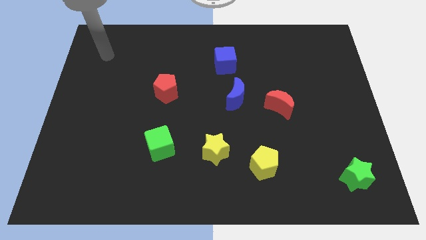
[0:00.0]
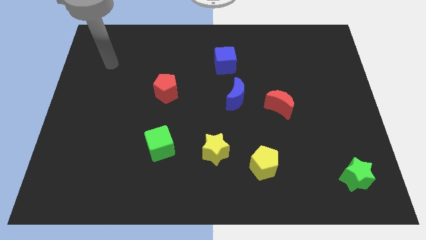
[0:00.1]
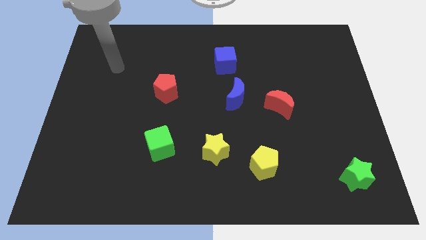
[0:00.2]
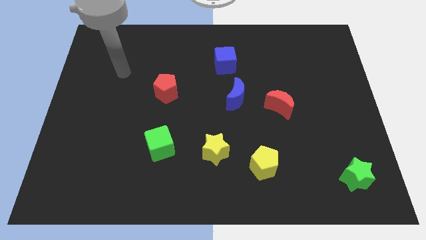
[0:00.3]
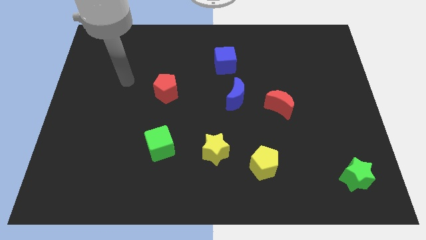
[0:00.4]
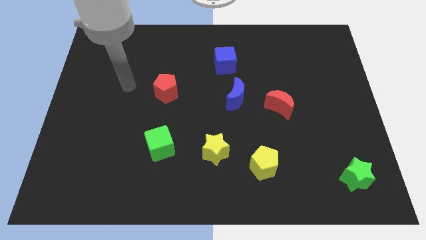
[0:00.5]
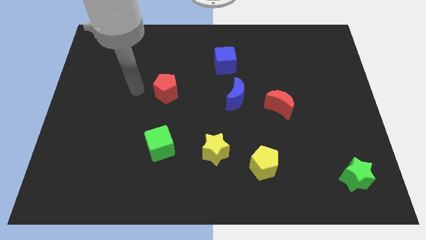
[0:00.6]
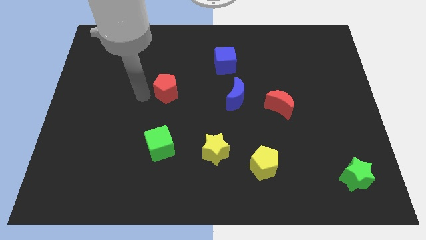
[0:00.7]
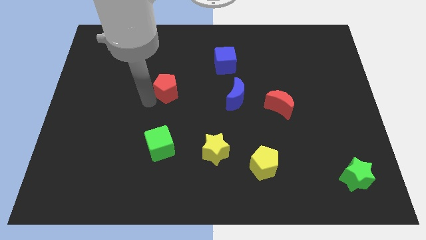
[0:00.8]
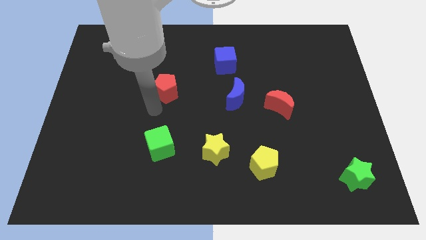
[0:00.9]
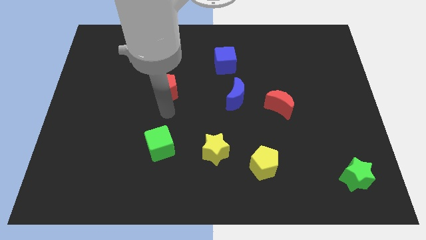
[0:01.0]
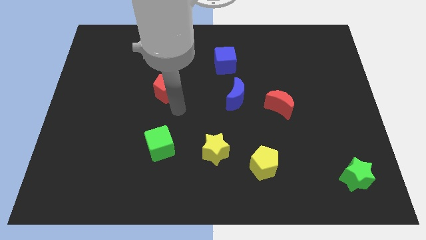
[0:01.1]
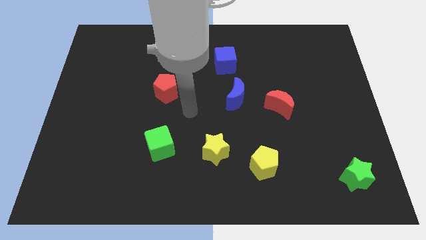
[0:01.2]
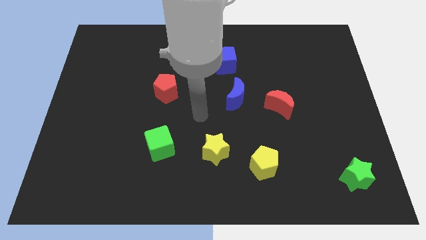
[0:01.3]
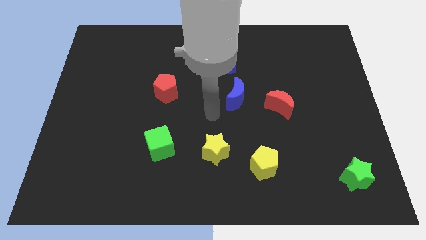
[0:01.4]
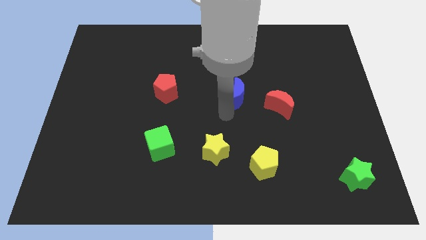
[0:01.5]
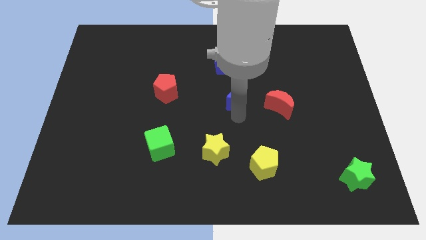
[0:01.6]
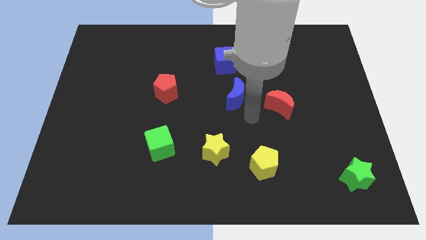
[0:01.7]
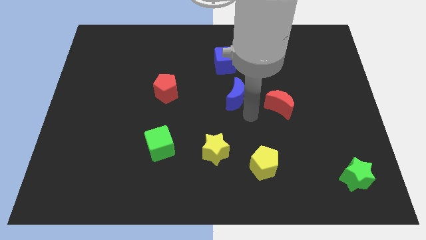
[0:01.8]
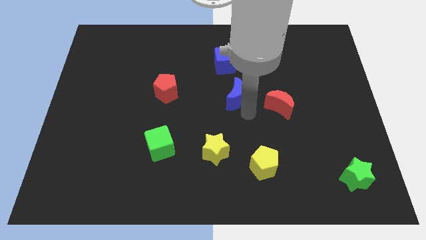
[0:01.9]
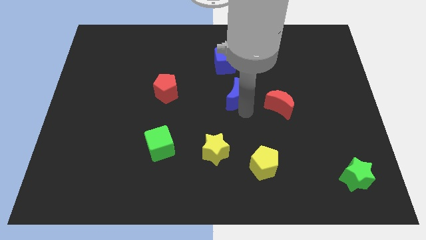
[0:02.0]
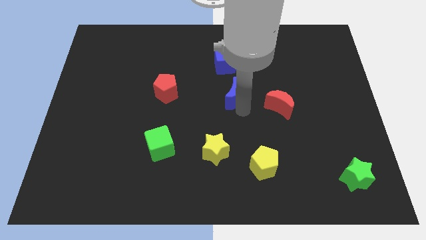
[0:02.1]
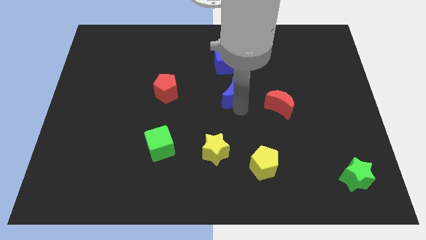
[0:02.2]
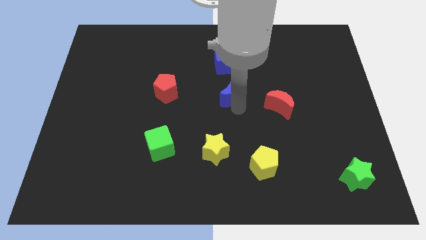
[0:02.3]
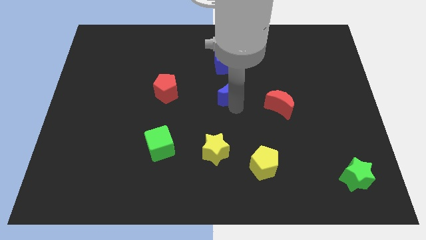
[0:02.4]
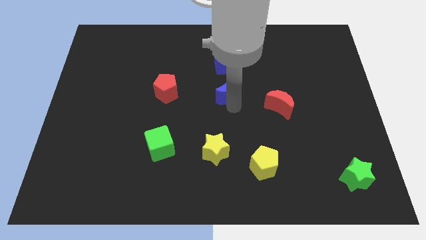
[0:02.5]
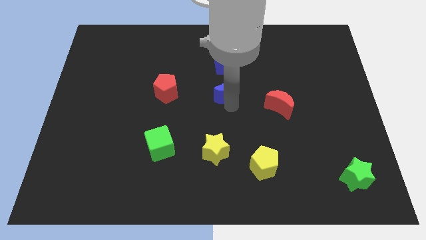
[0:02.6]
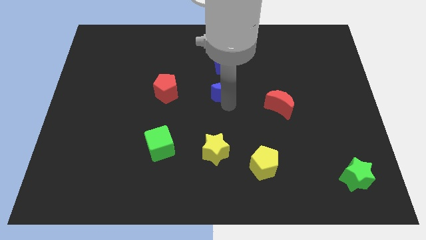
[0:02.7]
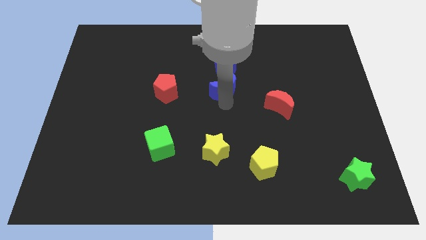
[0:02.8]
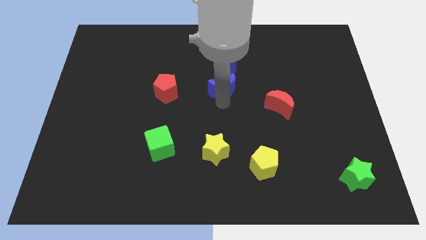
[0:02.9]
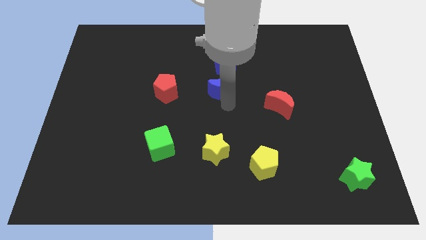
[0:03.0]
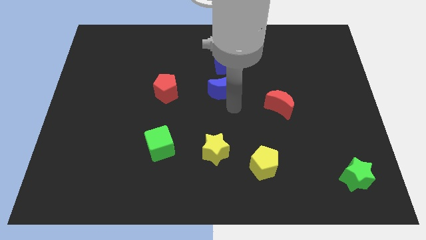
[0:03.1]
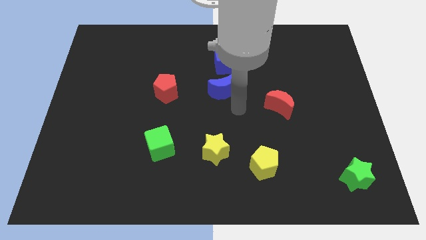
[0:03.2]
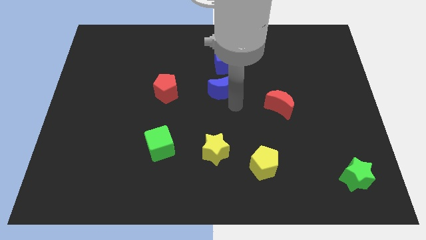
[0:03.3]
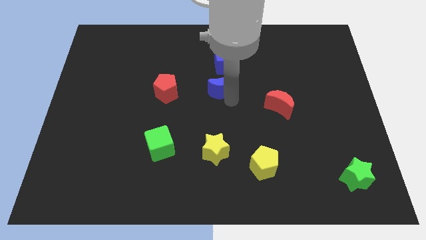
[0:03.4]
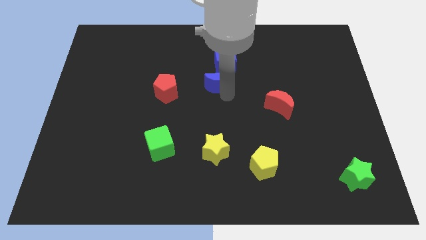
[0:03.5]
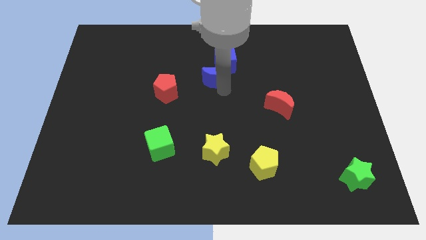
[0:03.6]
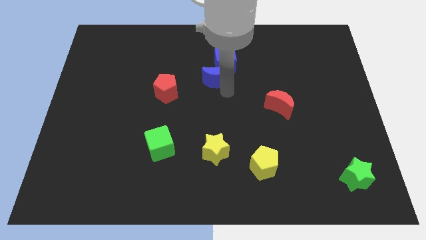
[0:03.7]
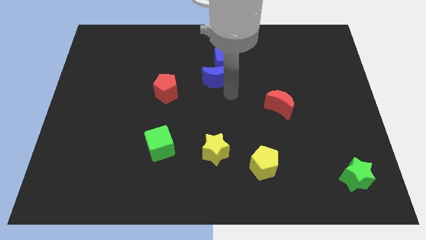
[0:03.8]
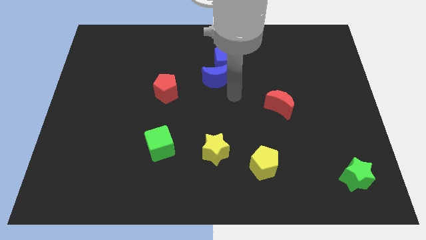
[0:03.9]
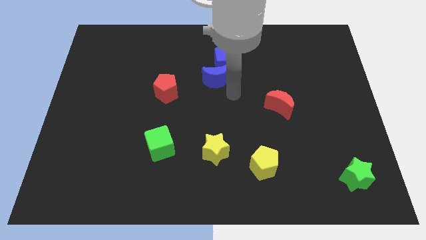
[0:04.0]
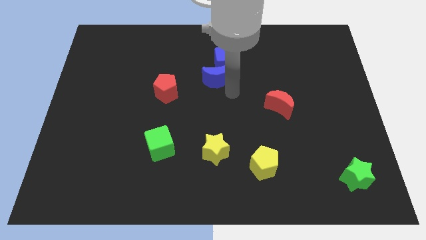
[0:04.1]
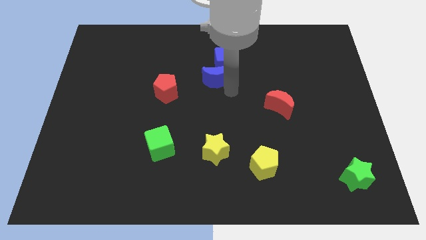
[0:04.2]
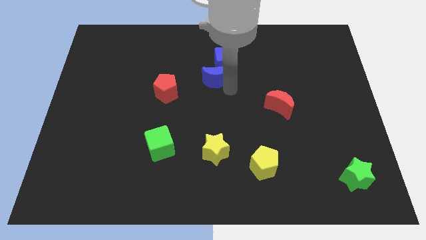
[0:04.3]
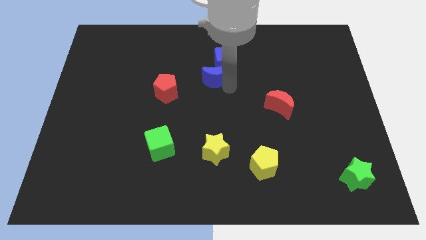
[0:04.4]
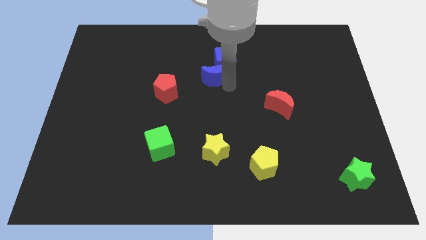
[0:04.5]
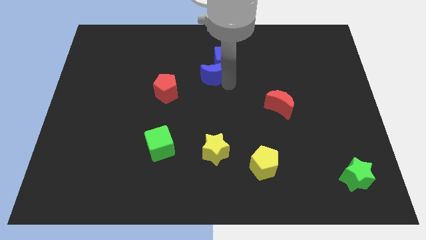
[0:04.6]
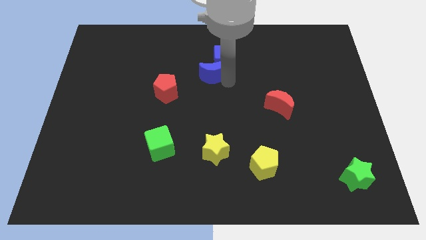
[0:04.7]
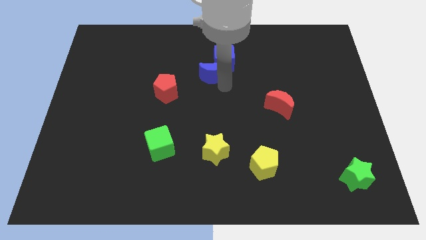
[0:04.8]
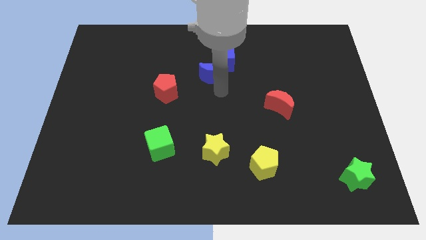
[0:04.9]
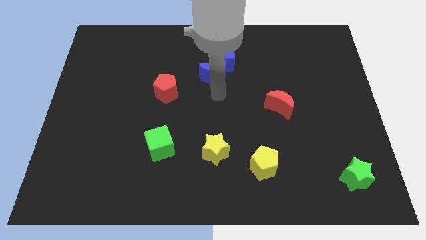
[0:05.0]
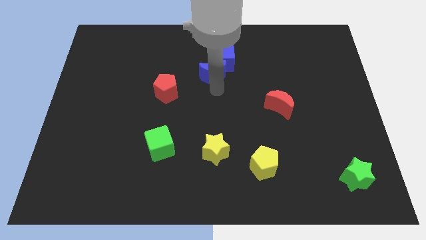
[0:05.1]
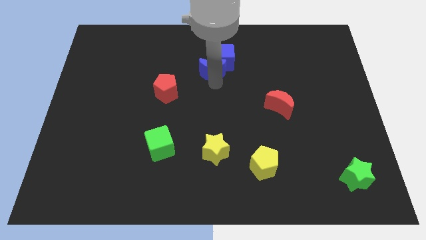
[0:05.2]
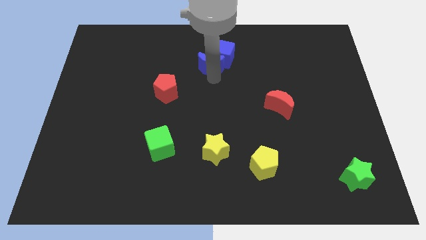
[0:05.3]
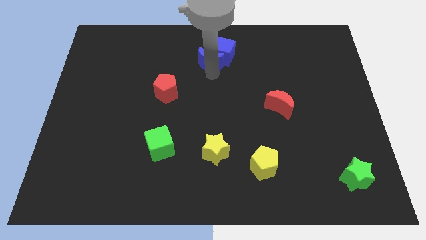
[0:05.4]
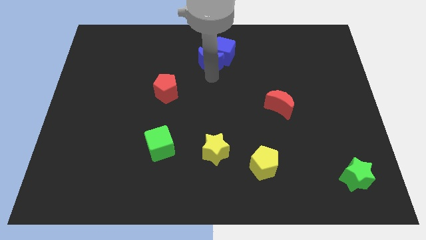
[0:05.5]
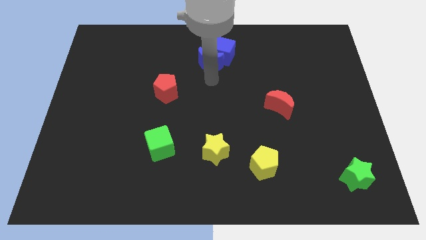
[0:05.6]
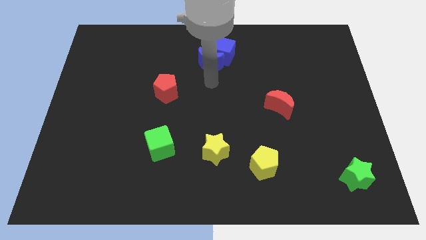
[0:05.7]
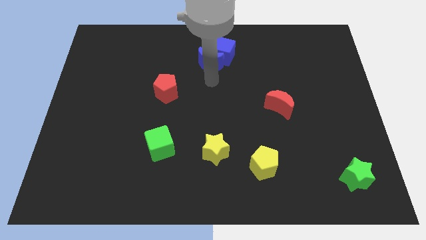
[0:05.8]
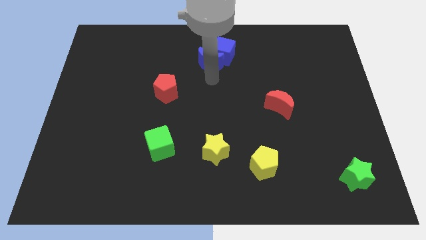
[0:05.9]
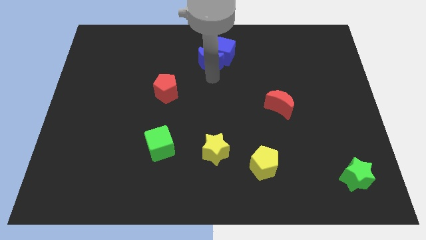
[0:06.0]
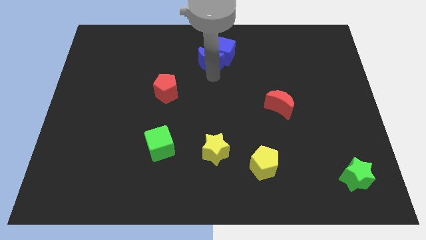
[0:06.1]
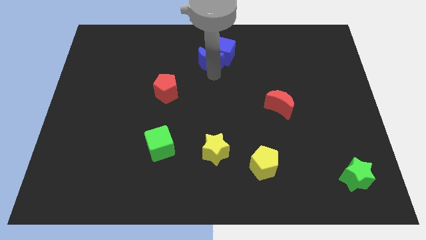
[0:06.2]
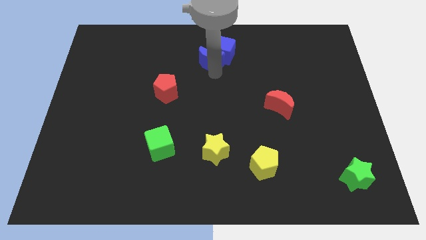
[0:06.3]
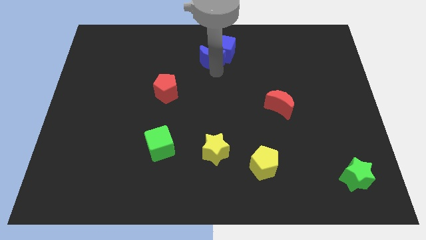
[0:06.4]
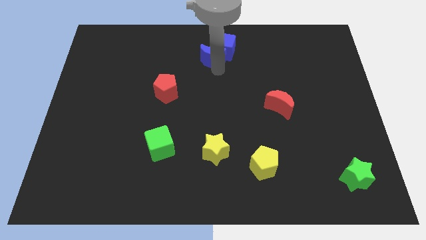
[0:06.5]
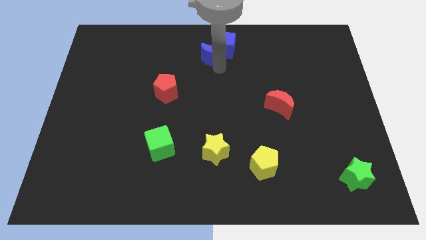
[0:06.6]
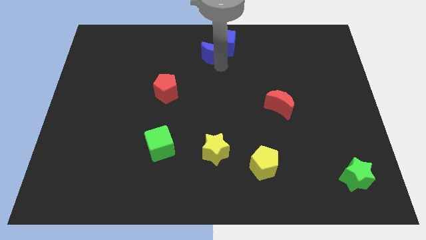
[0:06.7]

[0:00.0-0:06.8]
move the blue moon to the towards your base
